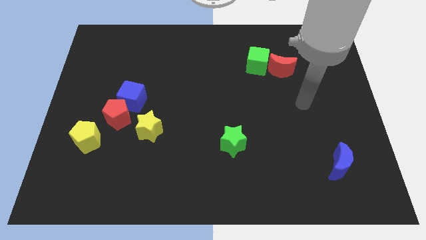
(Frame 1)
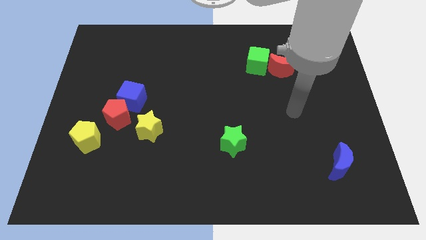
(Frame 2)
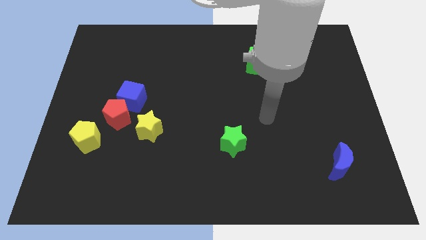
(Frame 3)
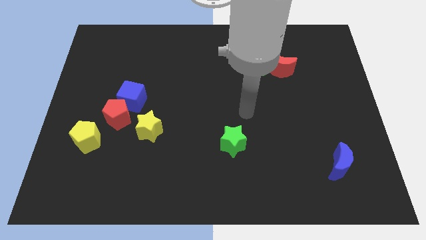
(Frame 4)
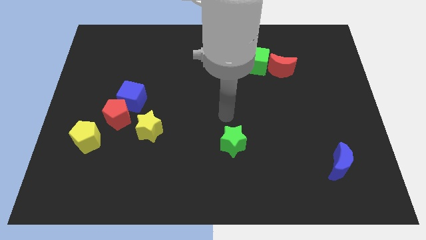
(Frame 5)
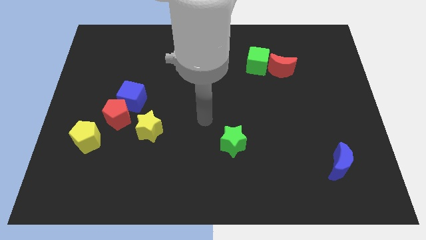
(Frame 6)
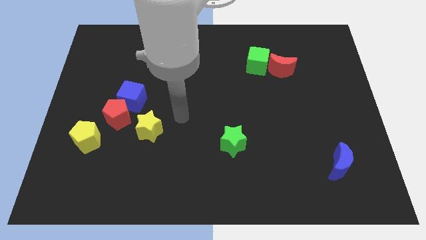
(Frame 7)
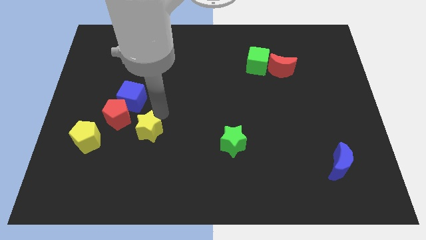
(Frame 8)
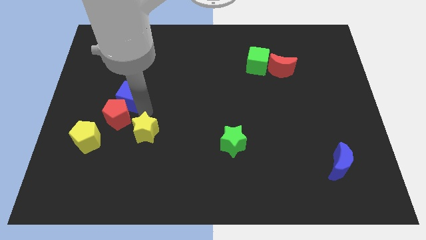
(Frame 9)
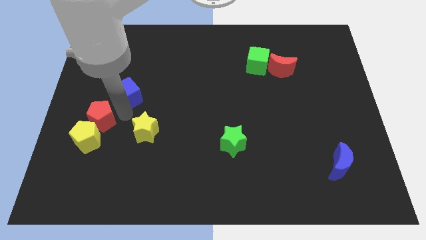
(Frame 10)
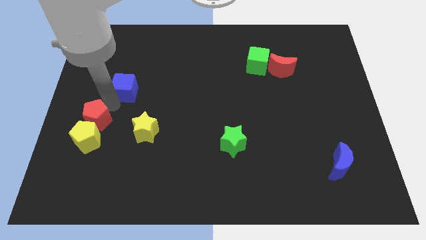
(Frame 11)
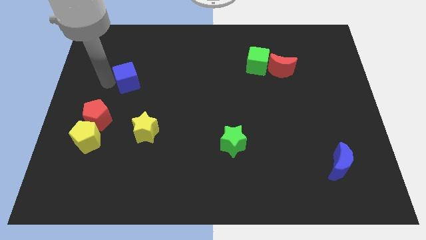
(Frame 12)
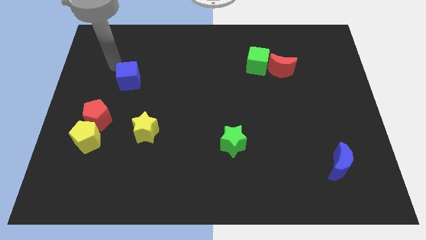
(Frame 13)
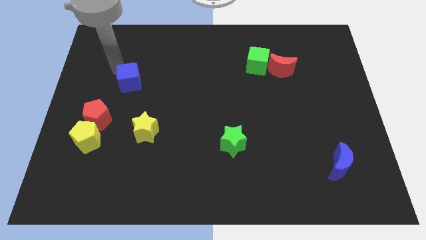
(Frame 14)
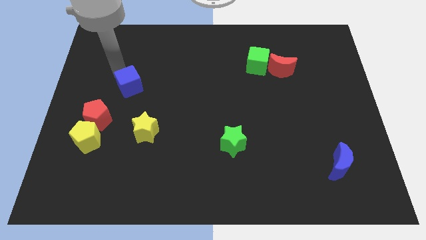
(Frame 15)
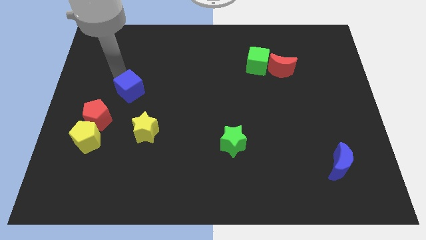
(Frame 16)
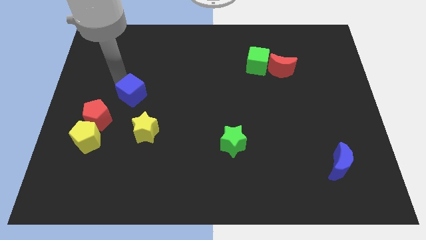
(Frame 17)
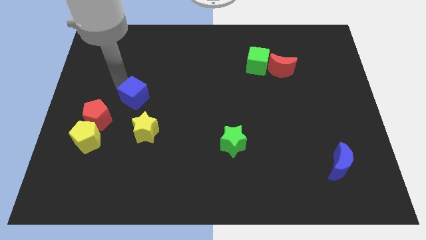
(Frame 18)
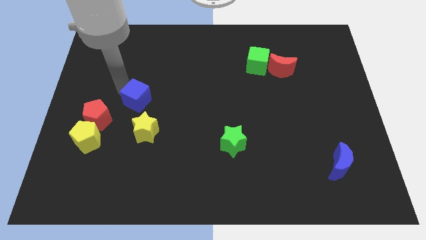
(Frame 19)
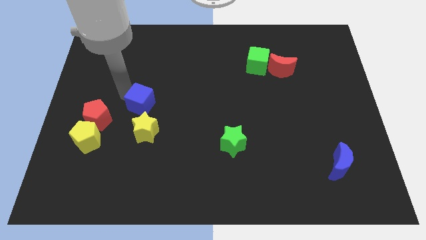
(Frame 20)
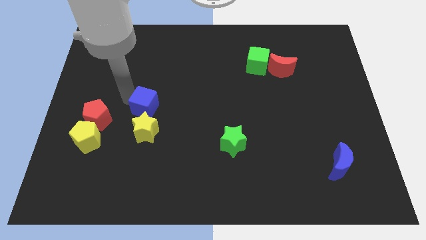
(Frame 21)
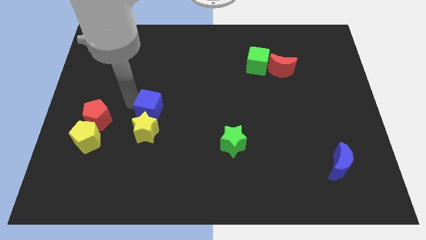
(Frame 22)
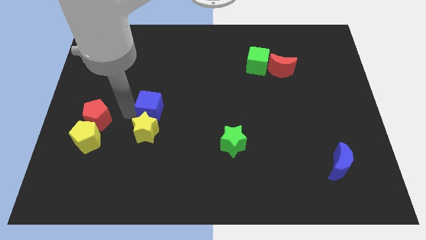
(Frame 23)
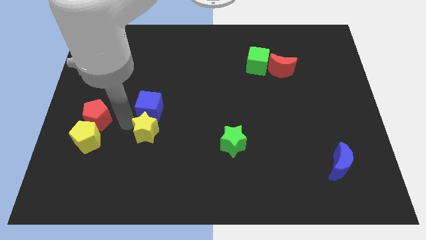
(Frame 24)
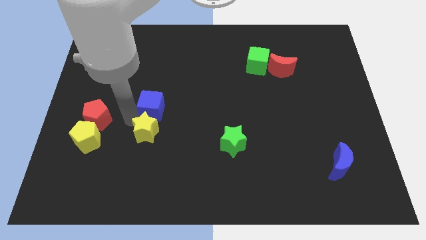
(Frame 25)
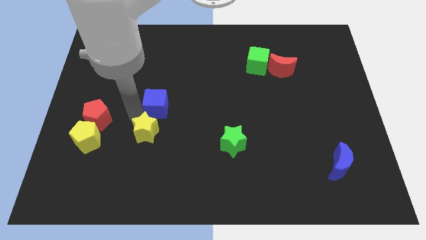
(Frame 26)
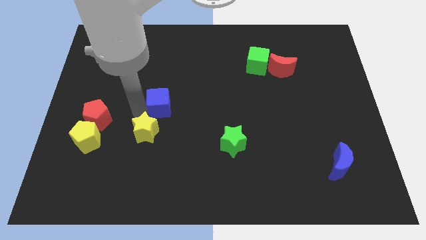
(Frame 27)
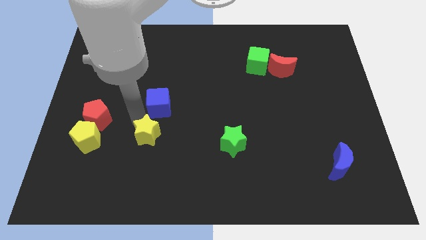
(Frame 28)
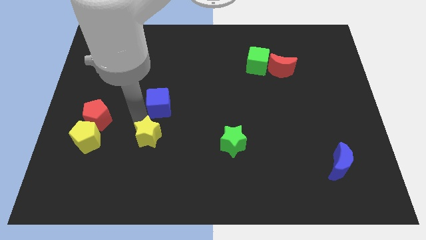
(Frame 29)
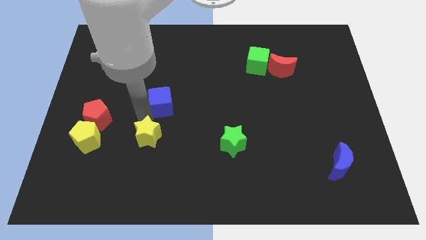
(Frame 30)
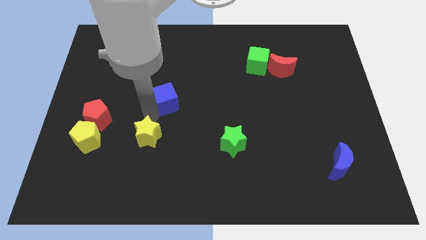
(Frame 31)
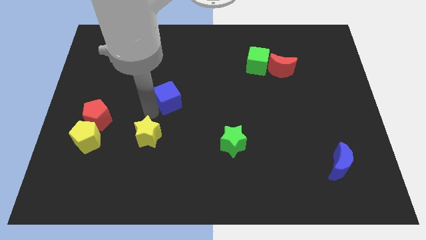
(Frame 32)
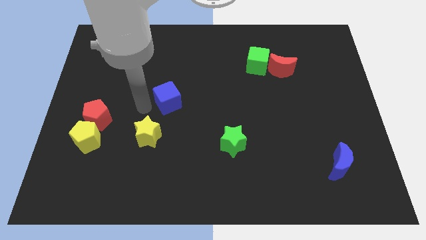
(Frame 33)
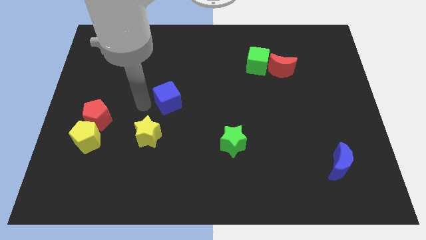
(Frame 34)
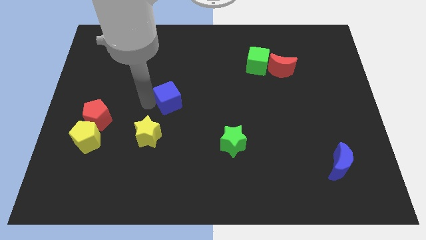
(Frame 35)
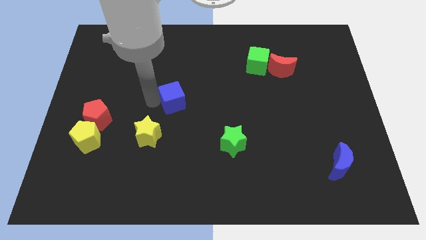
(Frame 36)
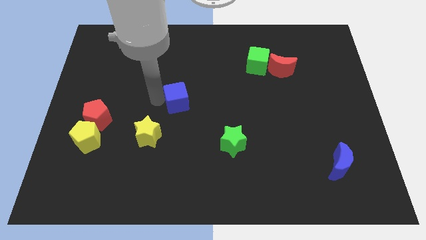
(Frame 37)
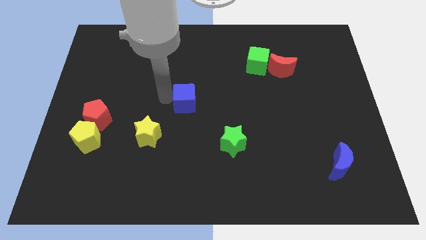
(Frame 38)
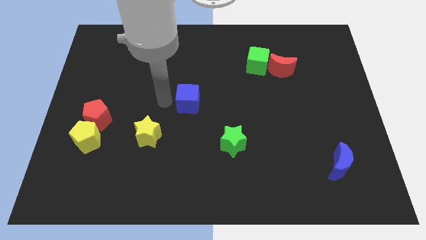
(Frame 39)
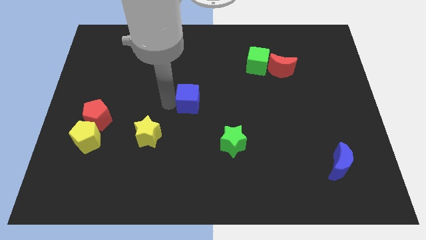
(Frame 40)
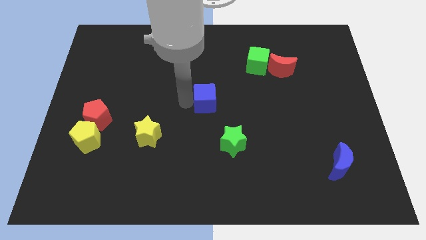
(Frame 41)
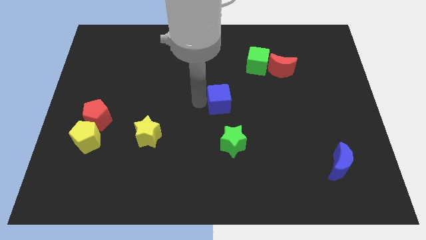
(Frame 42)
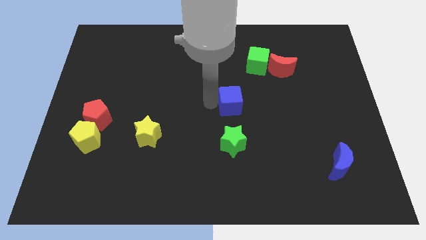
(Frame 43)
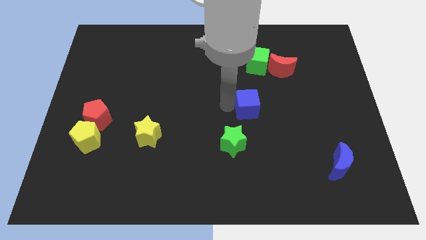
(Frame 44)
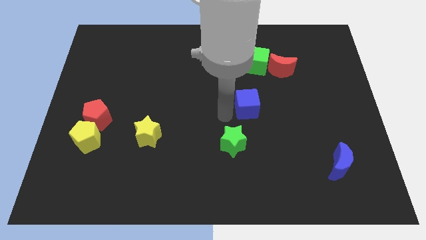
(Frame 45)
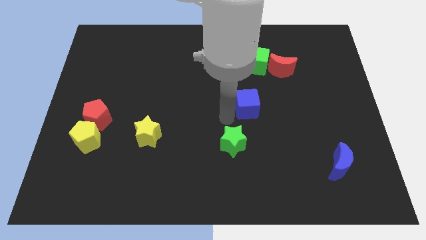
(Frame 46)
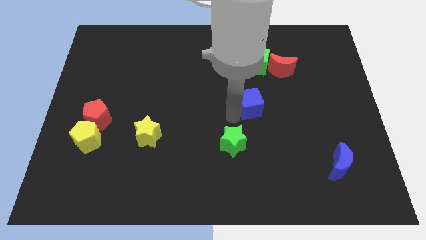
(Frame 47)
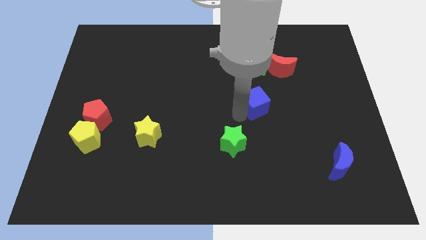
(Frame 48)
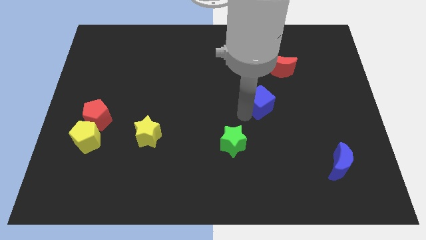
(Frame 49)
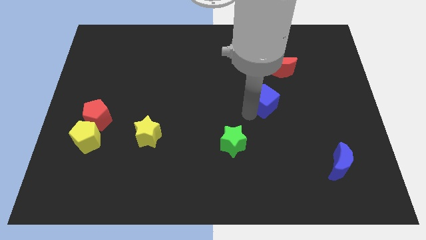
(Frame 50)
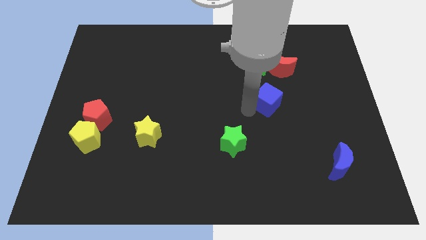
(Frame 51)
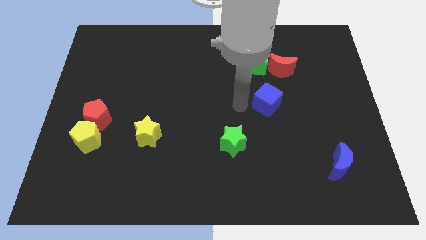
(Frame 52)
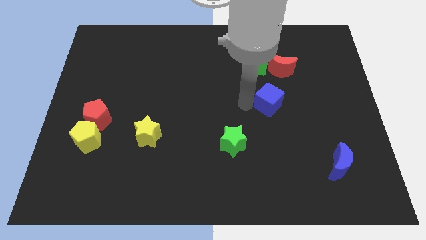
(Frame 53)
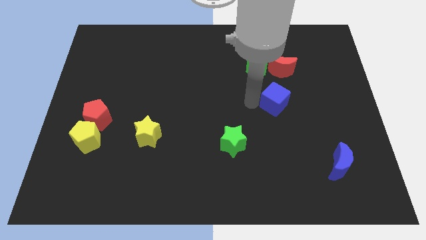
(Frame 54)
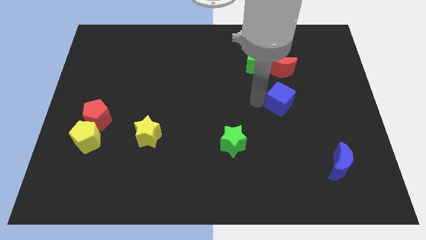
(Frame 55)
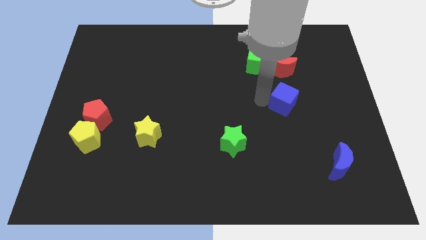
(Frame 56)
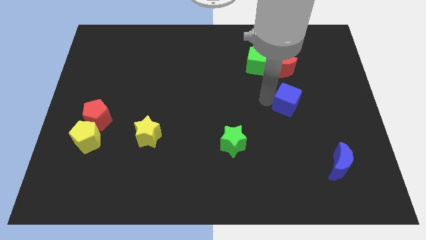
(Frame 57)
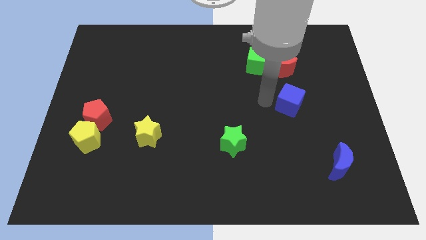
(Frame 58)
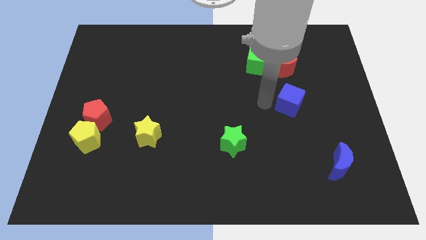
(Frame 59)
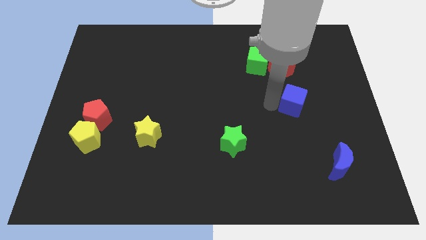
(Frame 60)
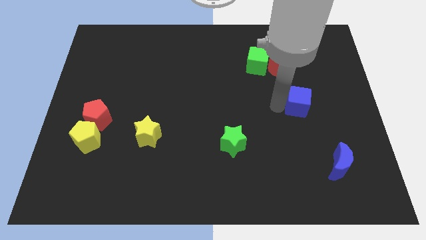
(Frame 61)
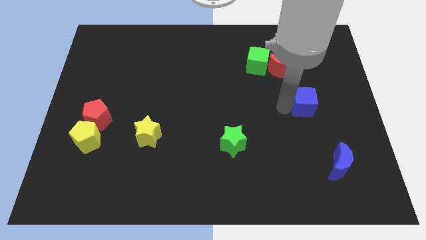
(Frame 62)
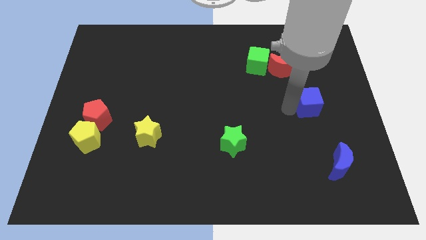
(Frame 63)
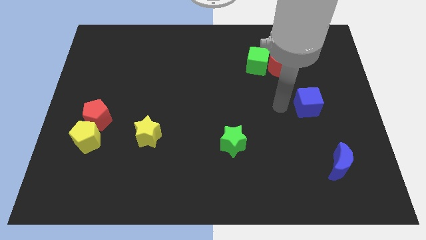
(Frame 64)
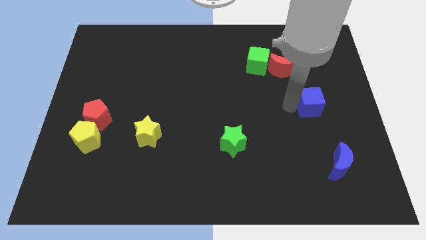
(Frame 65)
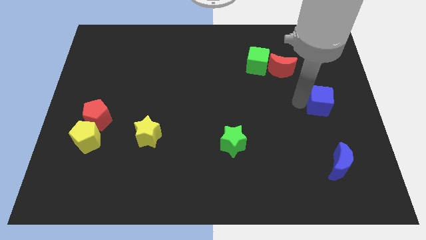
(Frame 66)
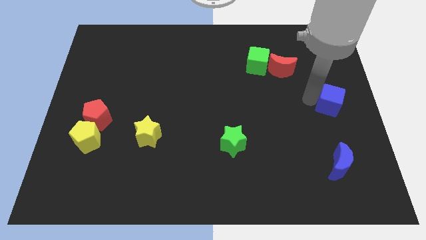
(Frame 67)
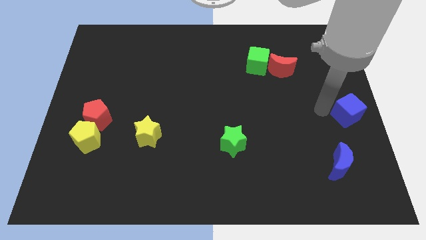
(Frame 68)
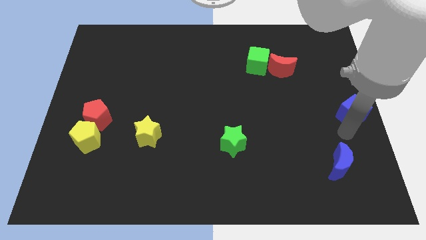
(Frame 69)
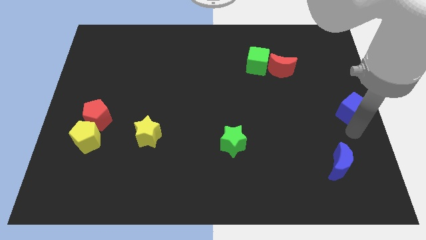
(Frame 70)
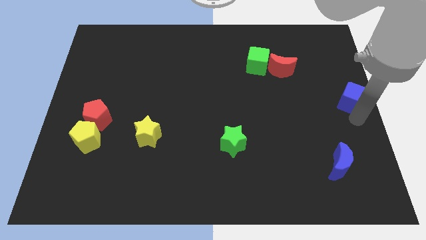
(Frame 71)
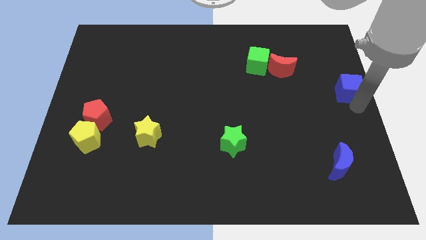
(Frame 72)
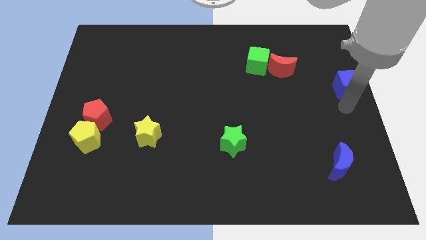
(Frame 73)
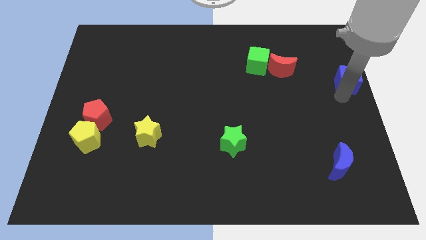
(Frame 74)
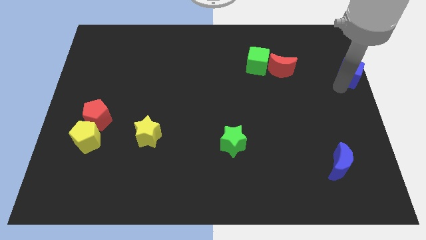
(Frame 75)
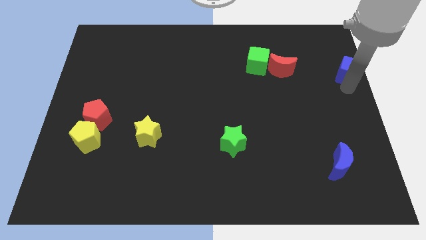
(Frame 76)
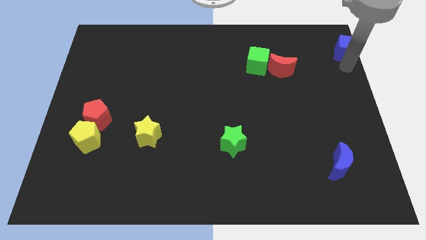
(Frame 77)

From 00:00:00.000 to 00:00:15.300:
slide the blue cube to the top right
